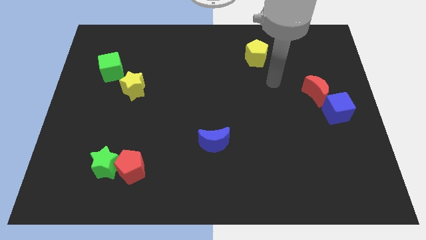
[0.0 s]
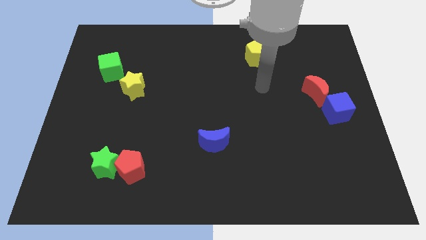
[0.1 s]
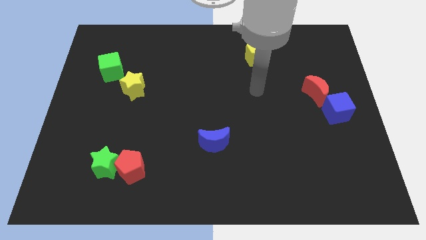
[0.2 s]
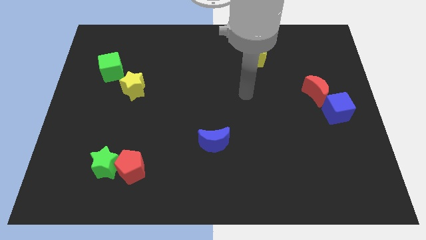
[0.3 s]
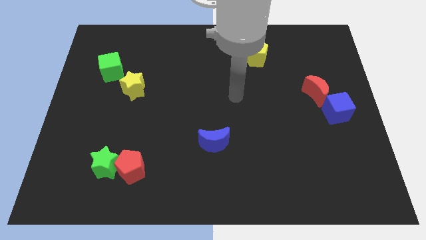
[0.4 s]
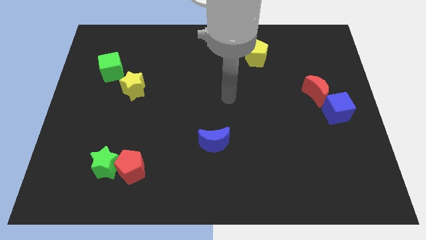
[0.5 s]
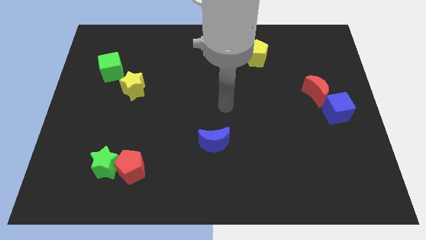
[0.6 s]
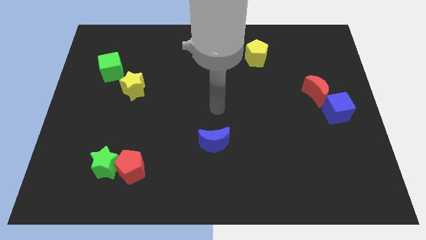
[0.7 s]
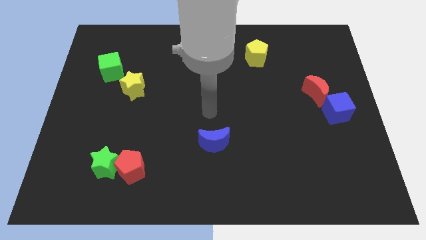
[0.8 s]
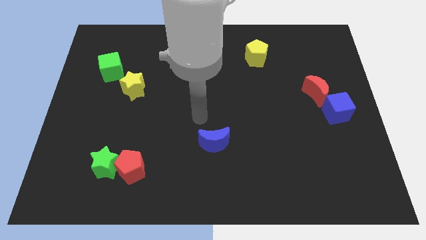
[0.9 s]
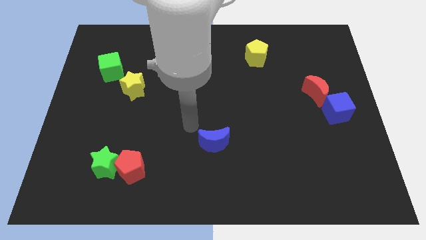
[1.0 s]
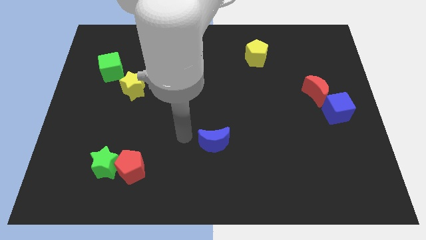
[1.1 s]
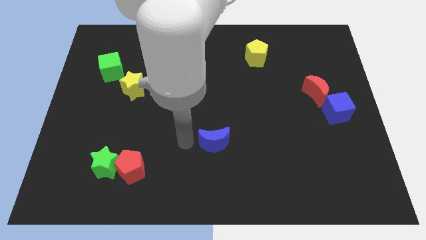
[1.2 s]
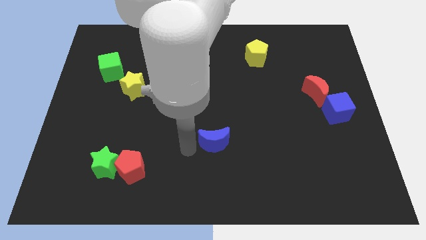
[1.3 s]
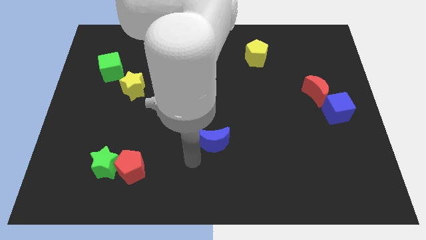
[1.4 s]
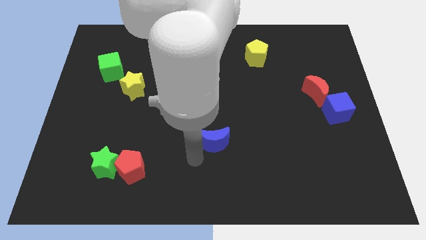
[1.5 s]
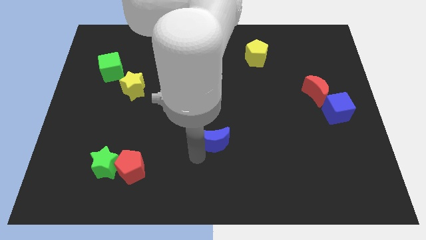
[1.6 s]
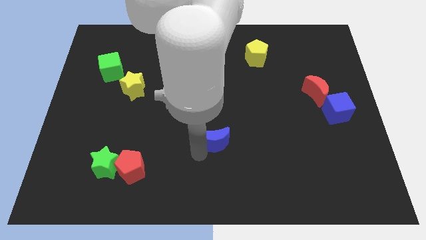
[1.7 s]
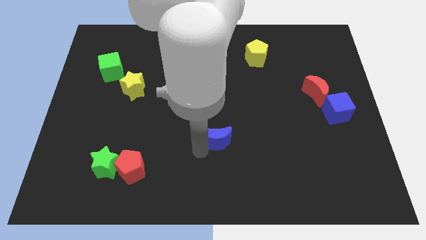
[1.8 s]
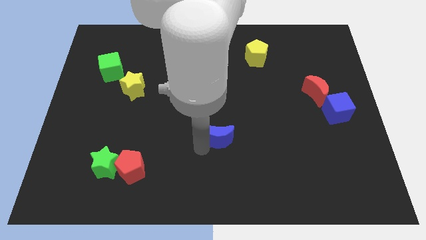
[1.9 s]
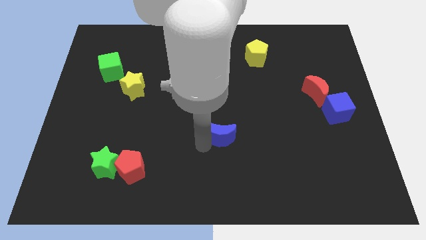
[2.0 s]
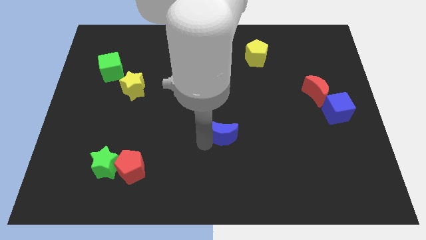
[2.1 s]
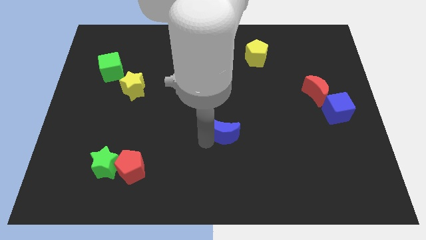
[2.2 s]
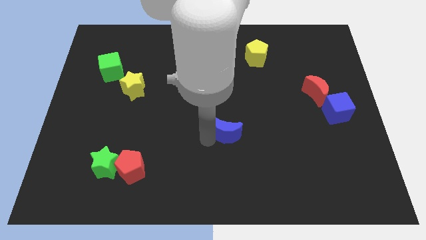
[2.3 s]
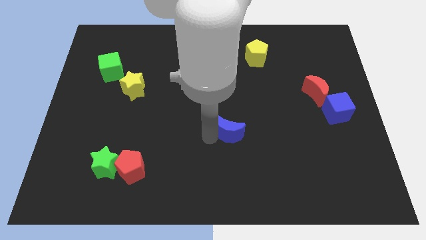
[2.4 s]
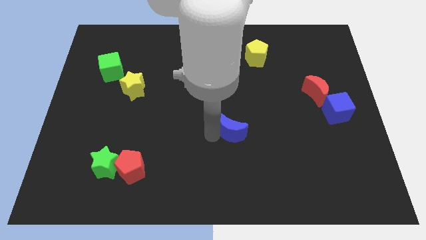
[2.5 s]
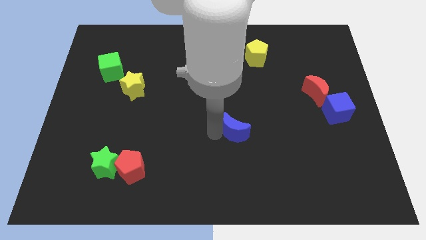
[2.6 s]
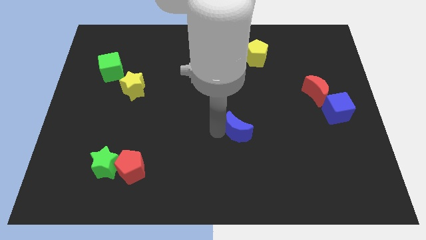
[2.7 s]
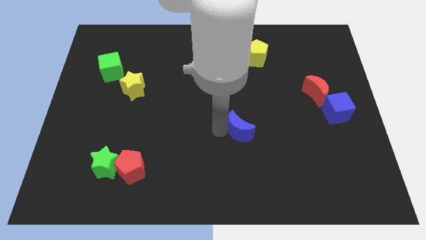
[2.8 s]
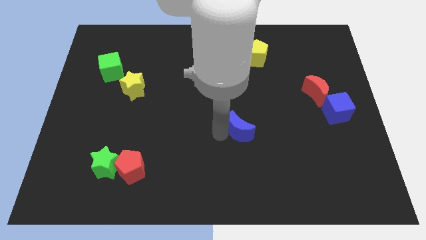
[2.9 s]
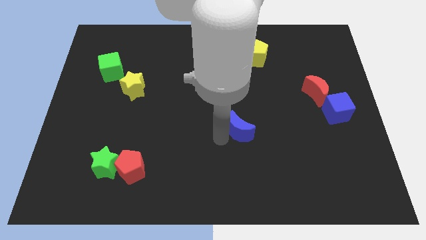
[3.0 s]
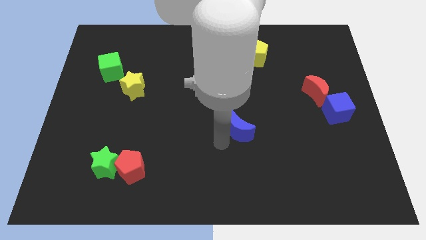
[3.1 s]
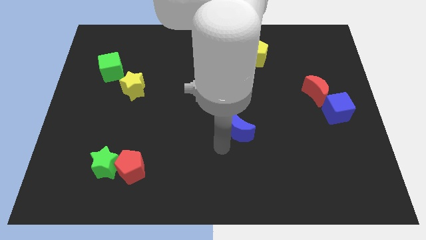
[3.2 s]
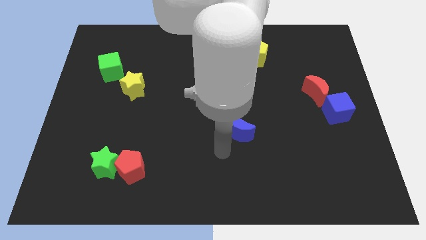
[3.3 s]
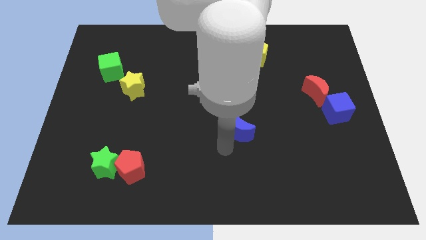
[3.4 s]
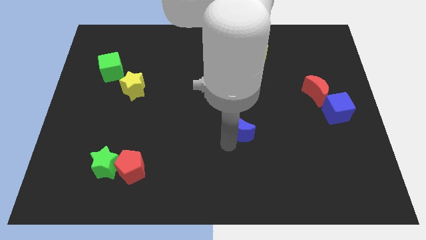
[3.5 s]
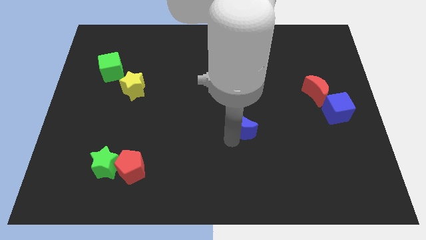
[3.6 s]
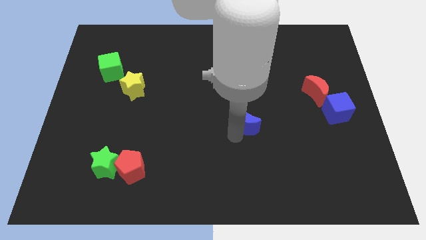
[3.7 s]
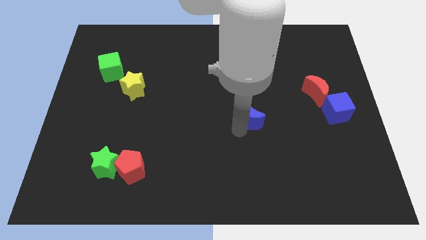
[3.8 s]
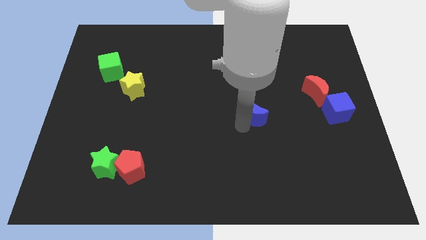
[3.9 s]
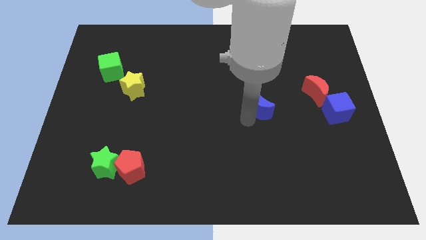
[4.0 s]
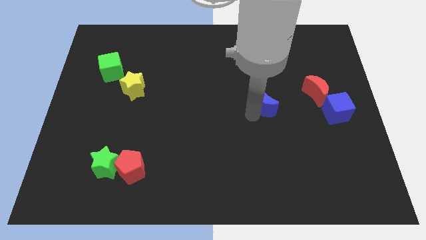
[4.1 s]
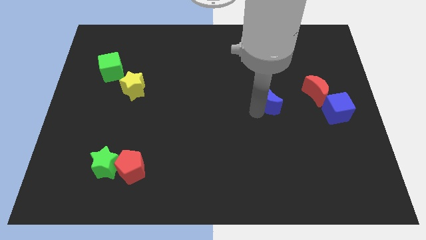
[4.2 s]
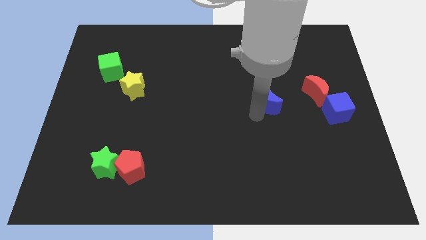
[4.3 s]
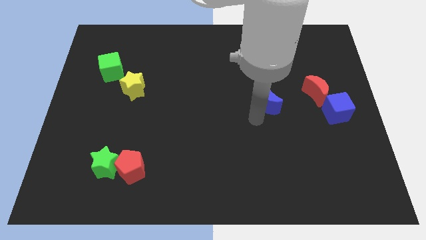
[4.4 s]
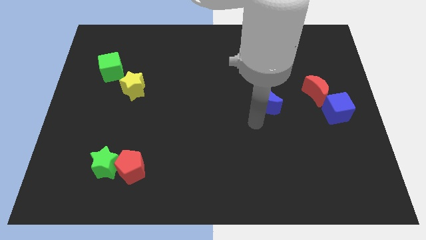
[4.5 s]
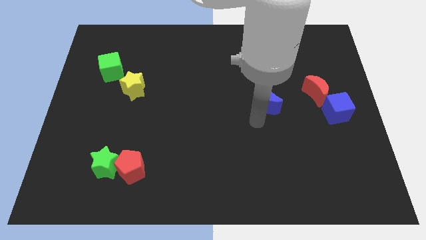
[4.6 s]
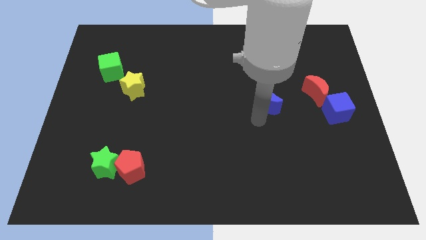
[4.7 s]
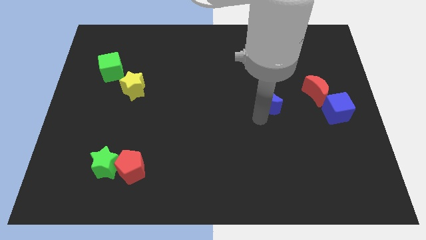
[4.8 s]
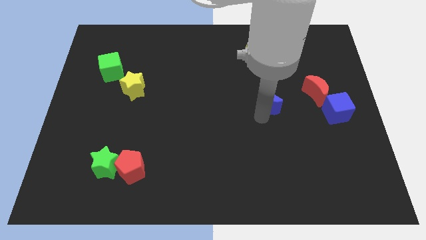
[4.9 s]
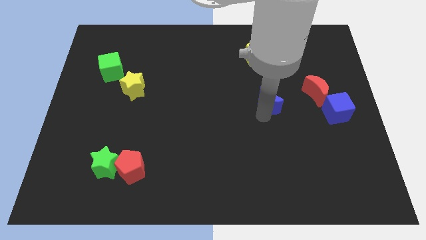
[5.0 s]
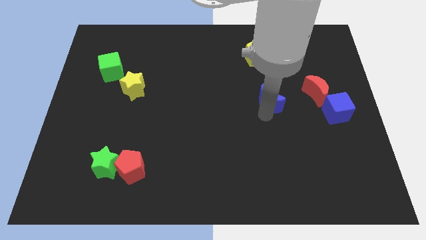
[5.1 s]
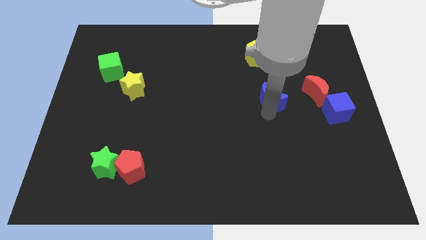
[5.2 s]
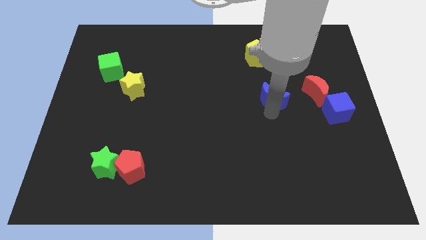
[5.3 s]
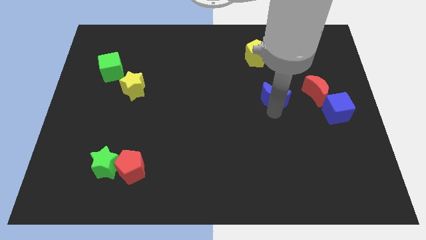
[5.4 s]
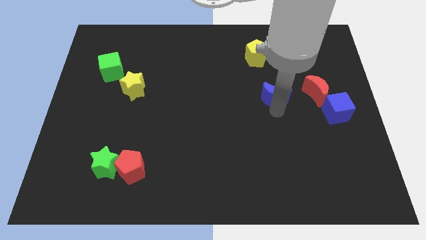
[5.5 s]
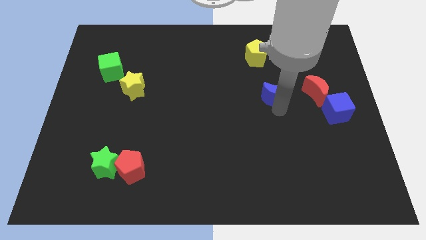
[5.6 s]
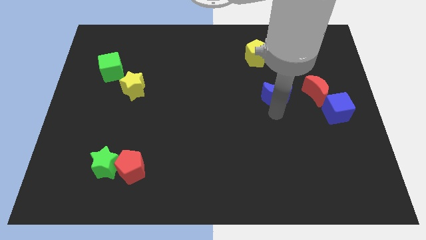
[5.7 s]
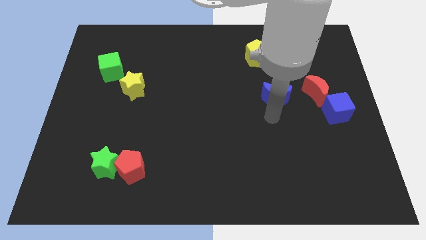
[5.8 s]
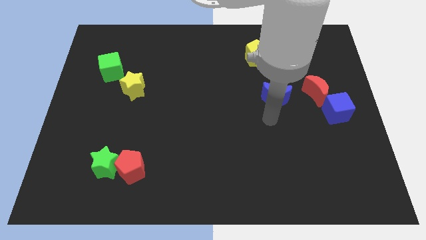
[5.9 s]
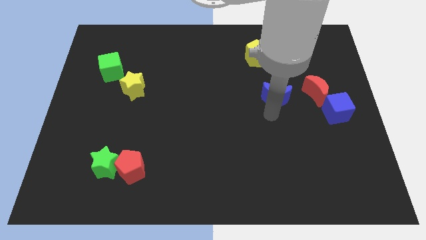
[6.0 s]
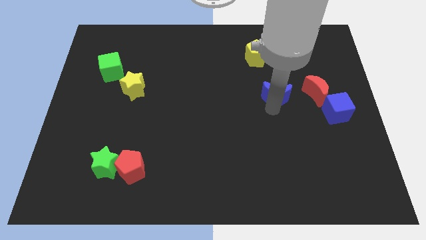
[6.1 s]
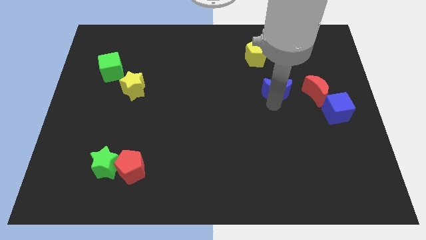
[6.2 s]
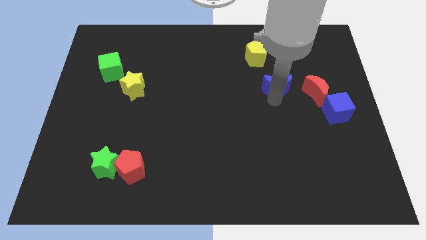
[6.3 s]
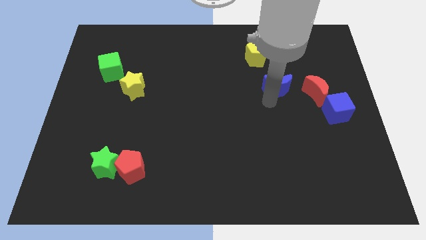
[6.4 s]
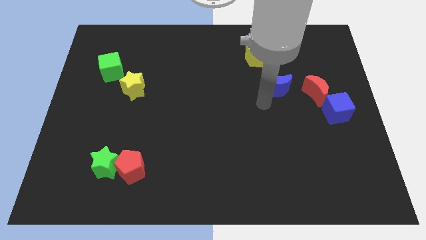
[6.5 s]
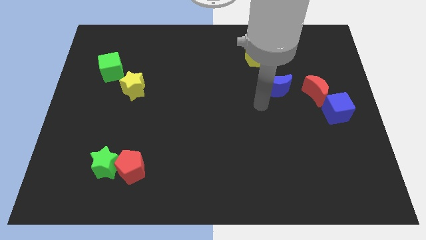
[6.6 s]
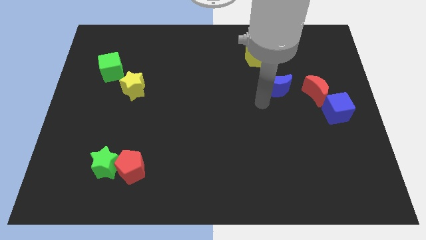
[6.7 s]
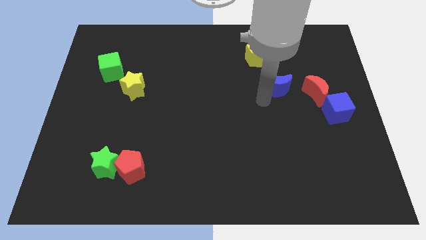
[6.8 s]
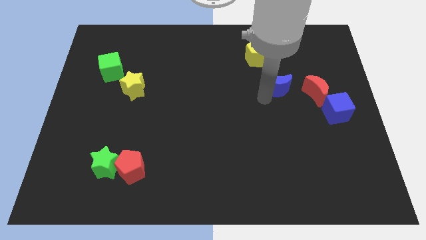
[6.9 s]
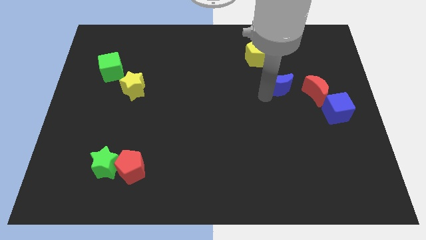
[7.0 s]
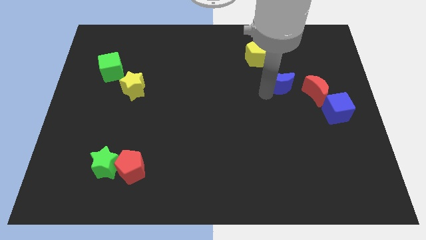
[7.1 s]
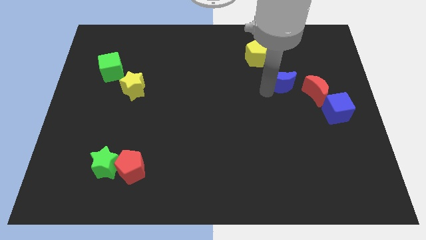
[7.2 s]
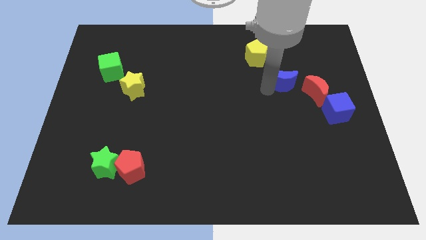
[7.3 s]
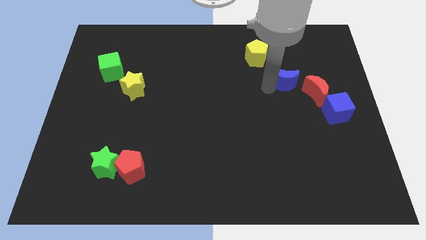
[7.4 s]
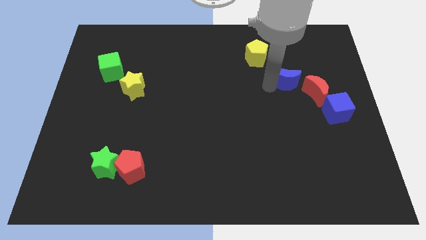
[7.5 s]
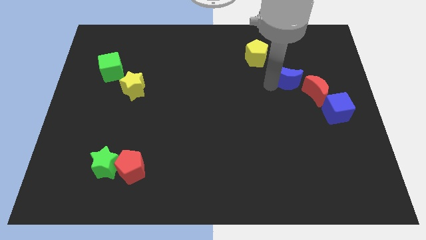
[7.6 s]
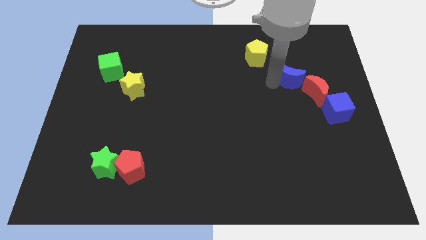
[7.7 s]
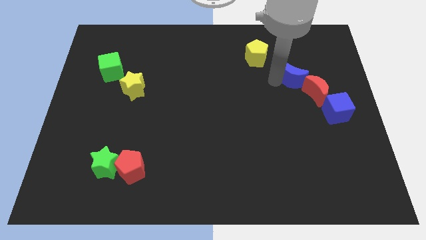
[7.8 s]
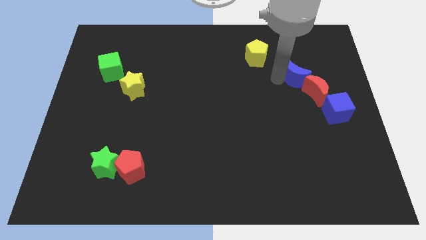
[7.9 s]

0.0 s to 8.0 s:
move the blue moon above the red moon
